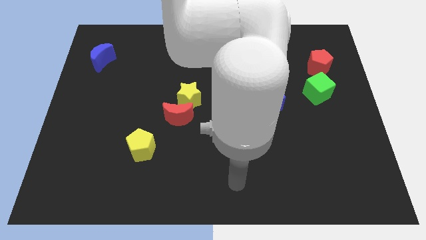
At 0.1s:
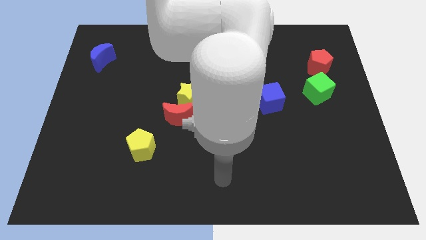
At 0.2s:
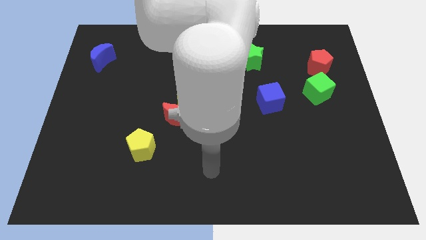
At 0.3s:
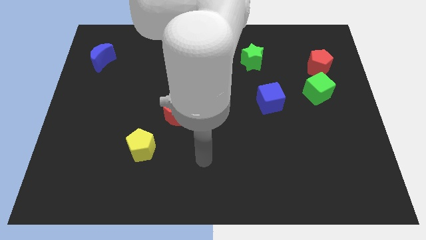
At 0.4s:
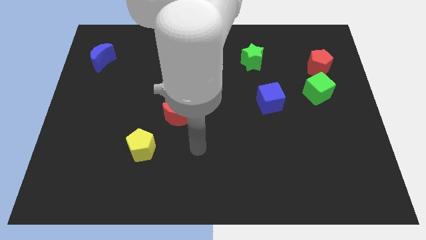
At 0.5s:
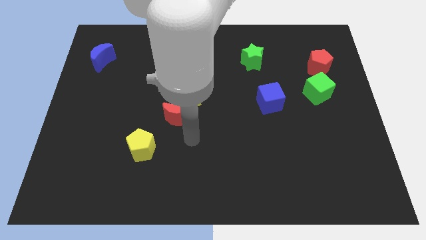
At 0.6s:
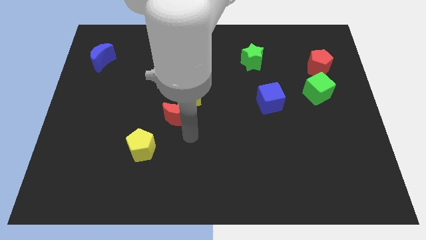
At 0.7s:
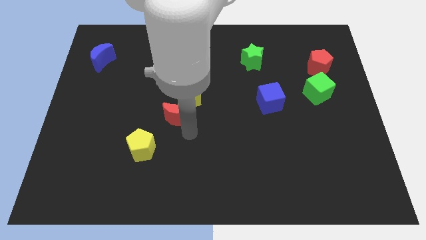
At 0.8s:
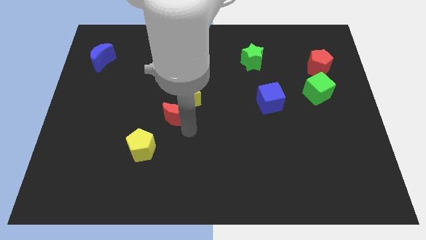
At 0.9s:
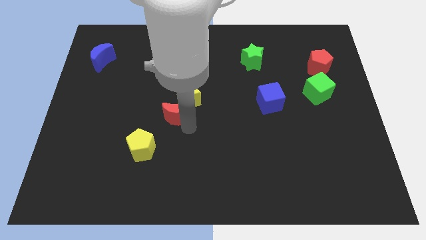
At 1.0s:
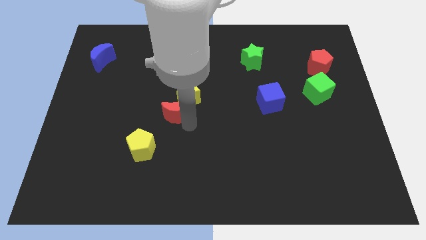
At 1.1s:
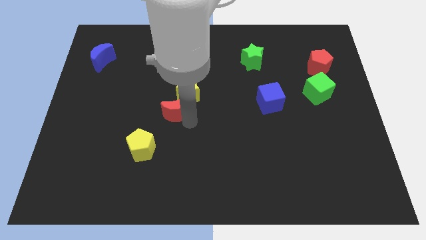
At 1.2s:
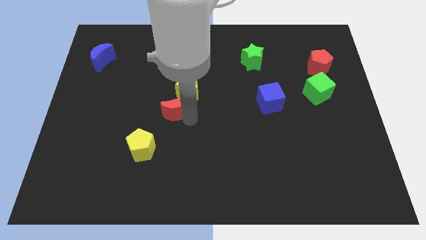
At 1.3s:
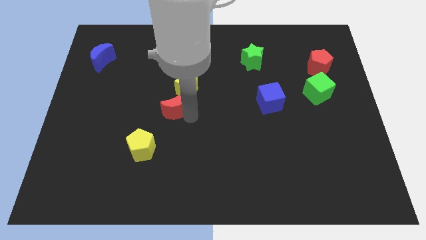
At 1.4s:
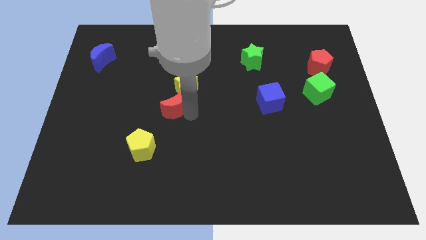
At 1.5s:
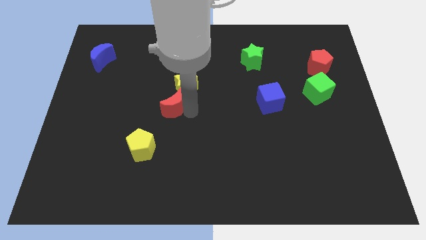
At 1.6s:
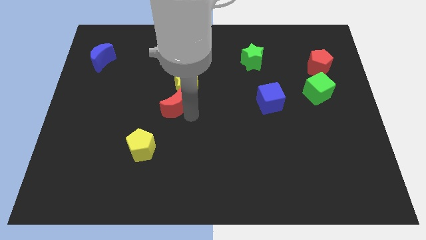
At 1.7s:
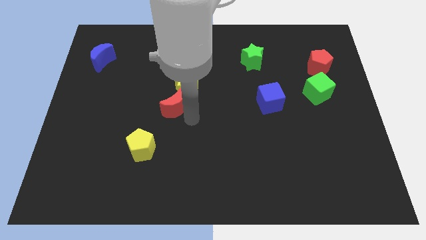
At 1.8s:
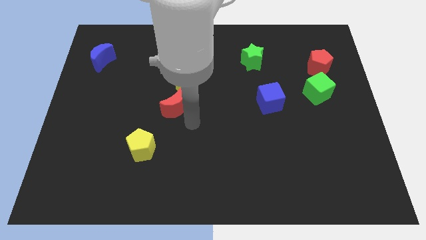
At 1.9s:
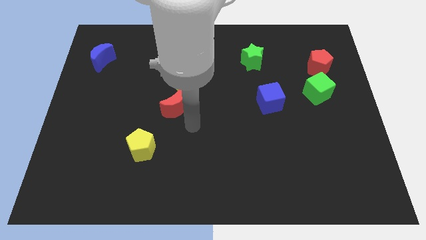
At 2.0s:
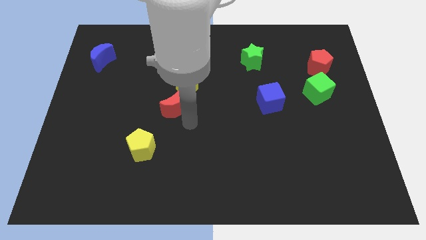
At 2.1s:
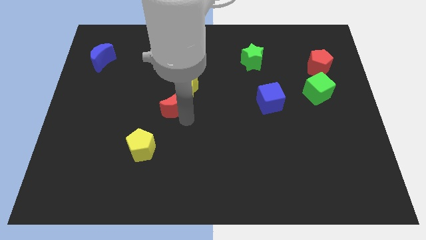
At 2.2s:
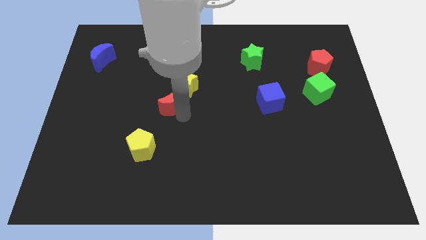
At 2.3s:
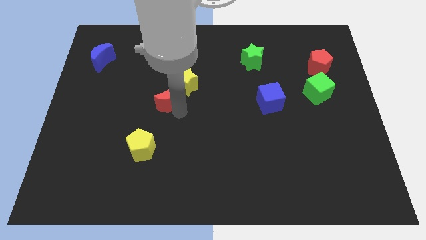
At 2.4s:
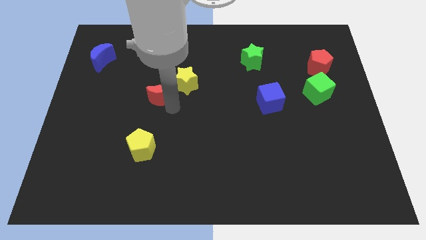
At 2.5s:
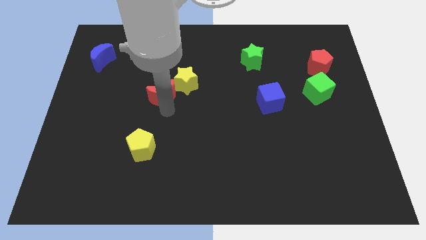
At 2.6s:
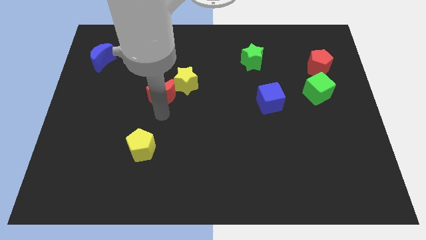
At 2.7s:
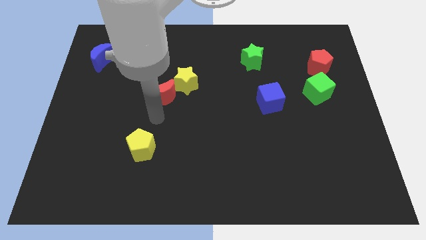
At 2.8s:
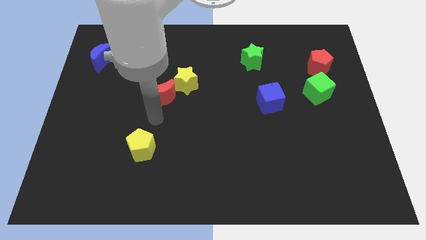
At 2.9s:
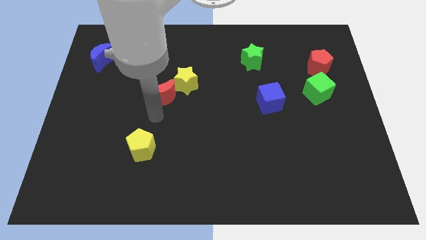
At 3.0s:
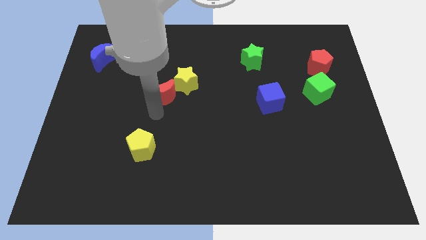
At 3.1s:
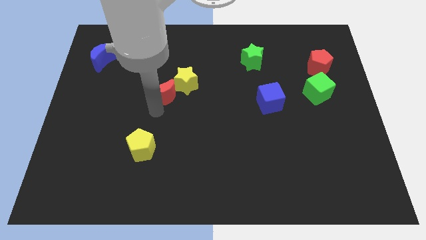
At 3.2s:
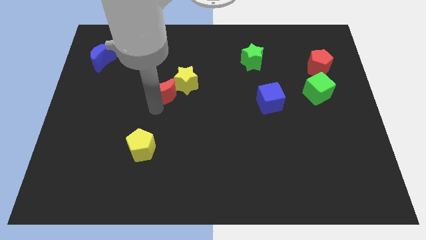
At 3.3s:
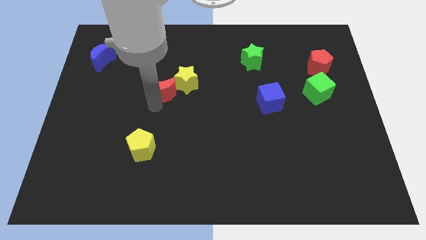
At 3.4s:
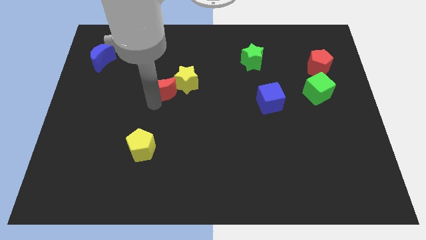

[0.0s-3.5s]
move the red moon slightly up

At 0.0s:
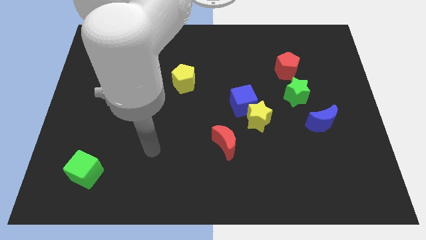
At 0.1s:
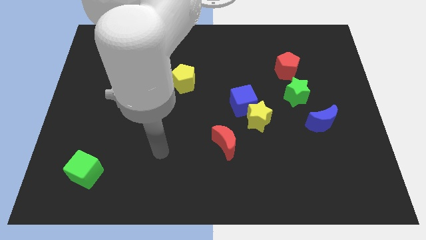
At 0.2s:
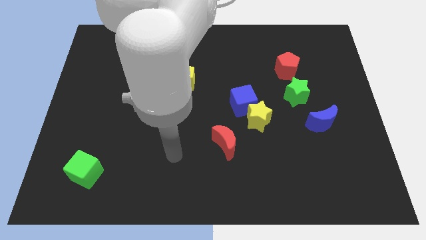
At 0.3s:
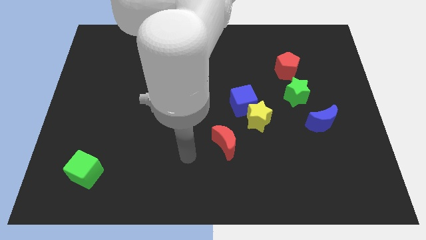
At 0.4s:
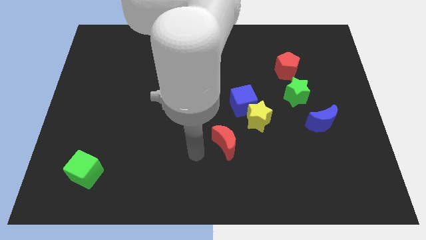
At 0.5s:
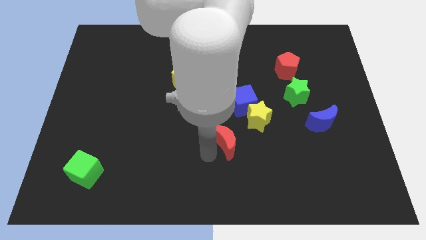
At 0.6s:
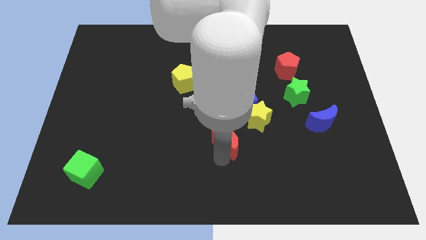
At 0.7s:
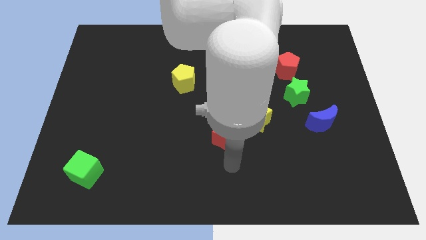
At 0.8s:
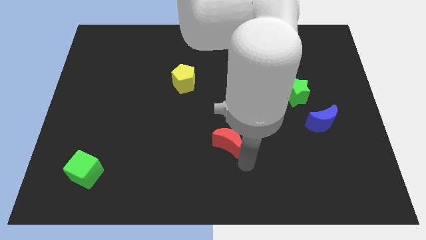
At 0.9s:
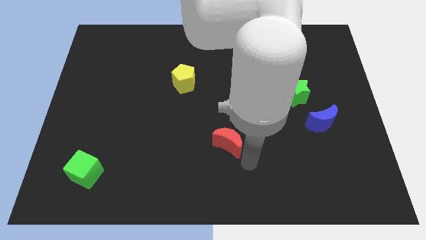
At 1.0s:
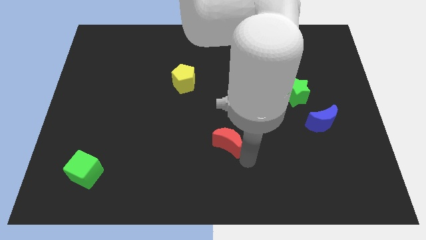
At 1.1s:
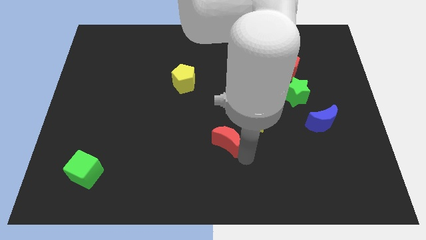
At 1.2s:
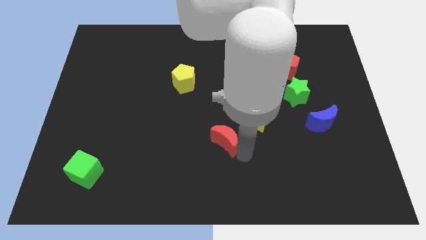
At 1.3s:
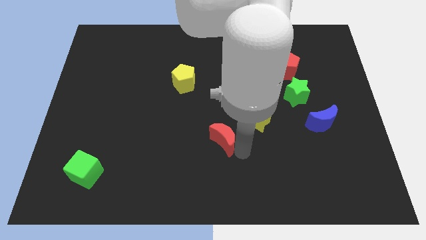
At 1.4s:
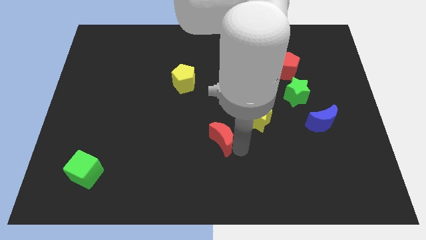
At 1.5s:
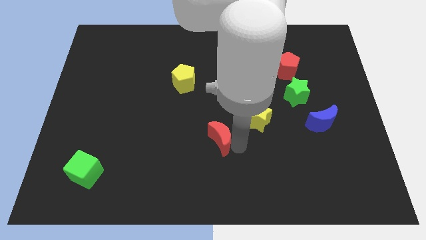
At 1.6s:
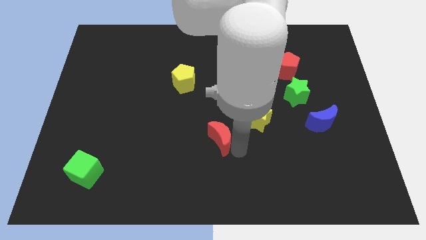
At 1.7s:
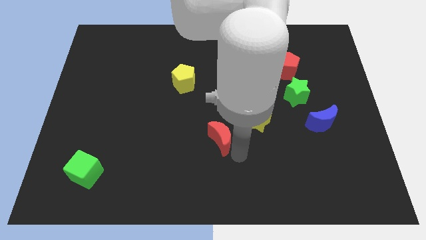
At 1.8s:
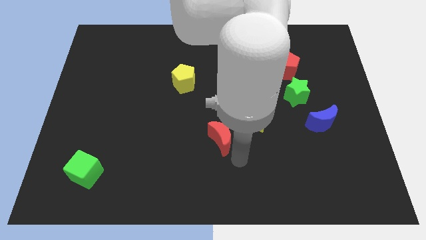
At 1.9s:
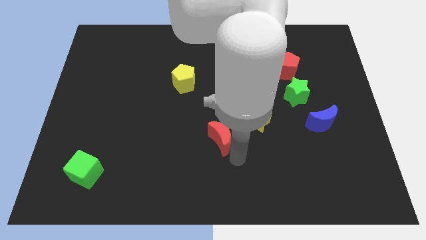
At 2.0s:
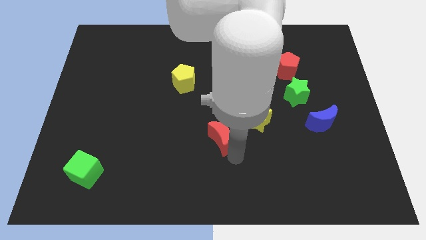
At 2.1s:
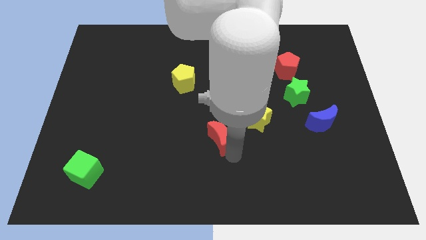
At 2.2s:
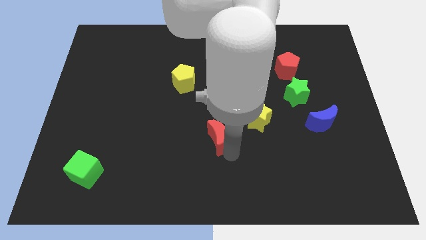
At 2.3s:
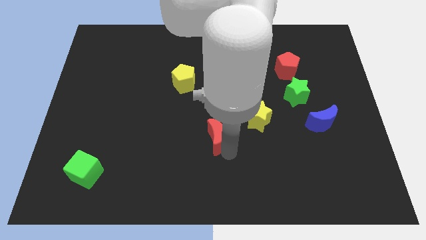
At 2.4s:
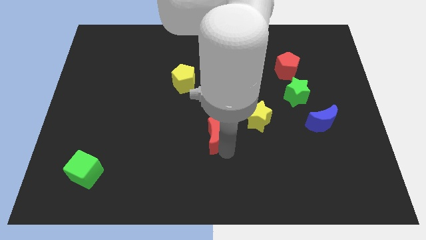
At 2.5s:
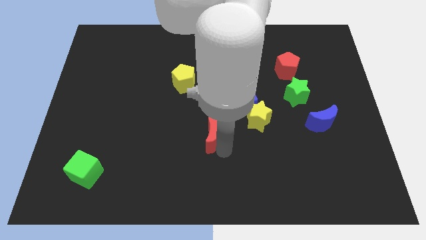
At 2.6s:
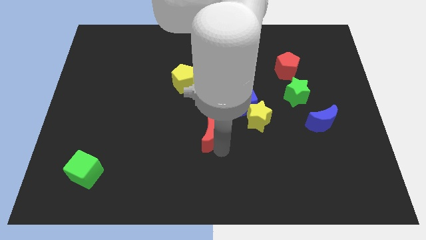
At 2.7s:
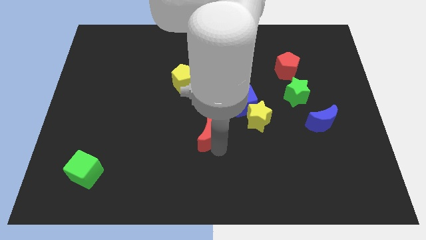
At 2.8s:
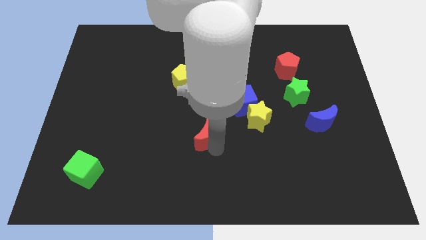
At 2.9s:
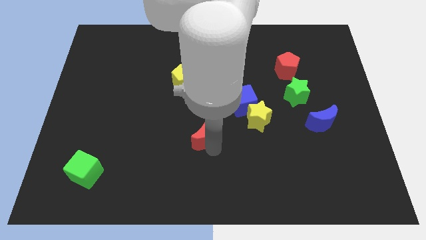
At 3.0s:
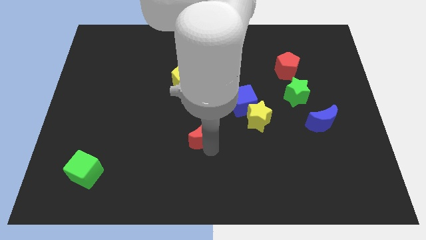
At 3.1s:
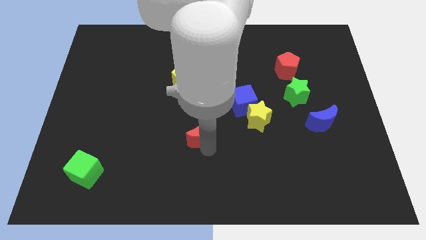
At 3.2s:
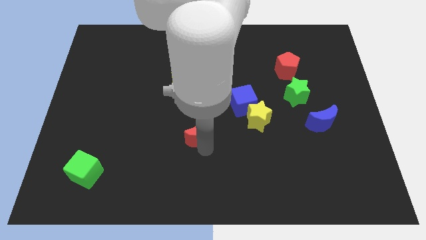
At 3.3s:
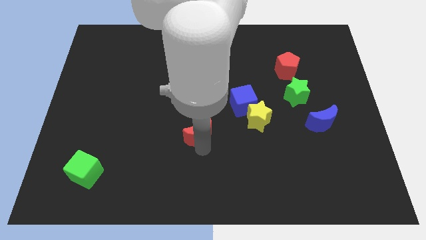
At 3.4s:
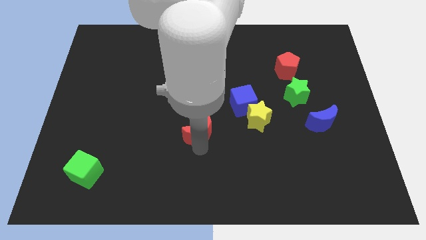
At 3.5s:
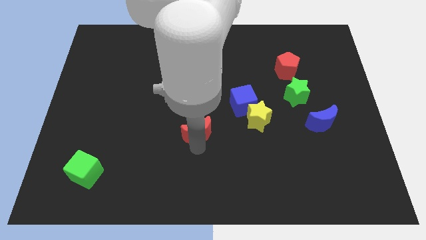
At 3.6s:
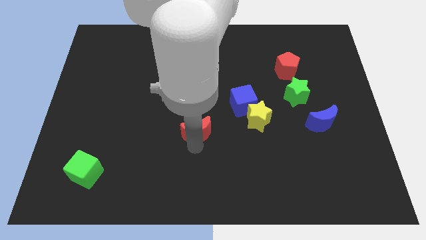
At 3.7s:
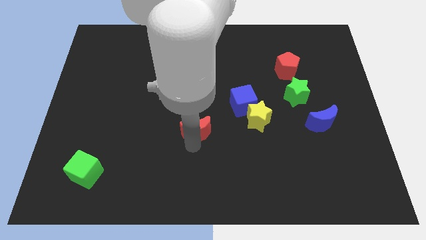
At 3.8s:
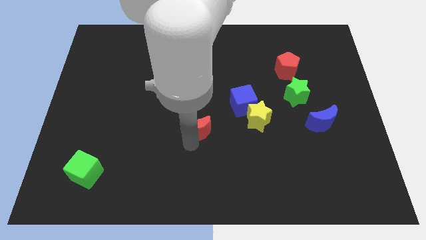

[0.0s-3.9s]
slightly push the red moon diagonally upwards and to the left

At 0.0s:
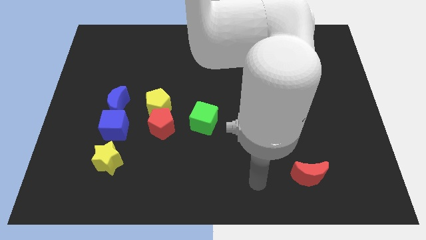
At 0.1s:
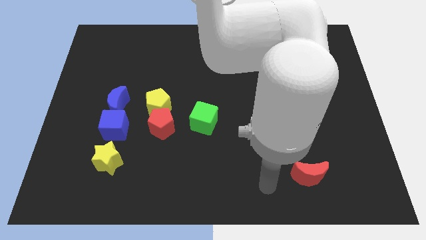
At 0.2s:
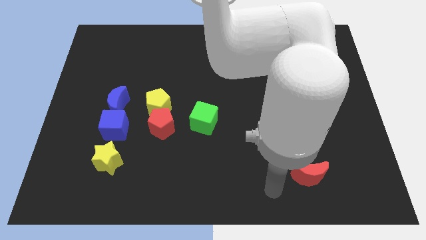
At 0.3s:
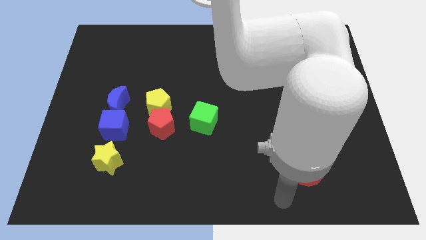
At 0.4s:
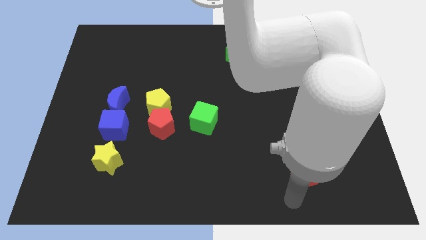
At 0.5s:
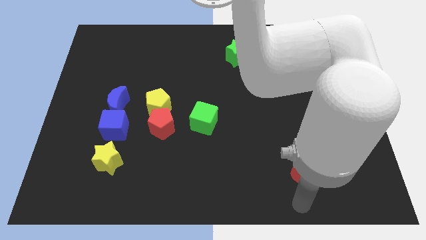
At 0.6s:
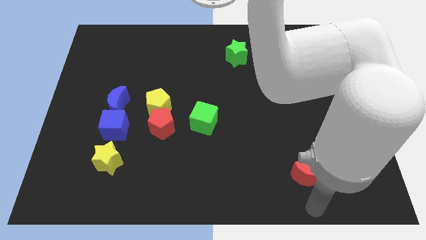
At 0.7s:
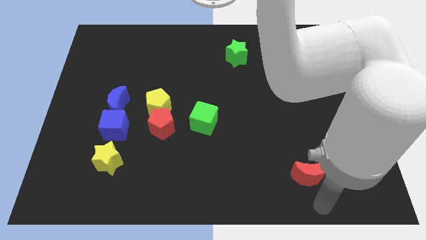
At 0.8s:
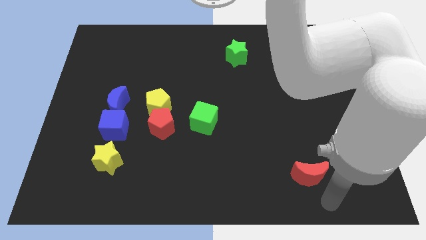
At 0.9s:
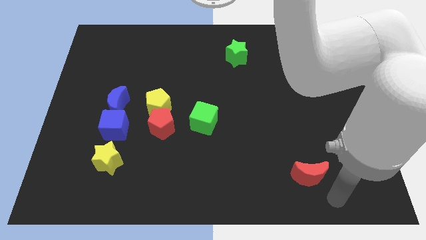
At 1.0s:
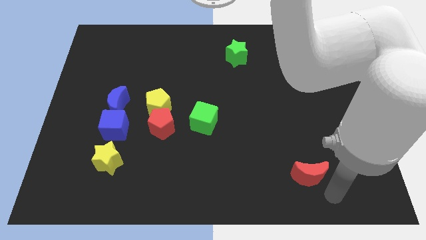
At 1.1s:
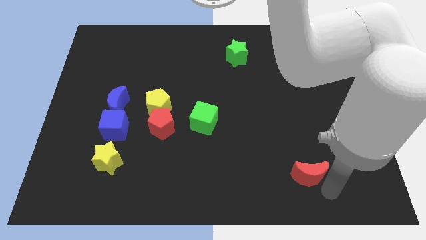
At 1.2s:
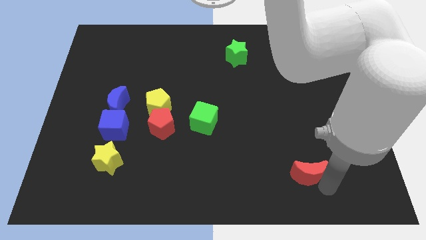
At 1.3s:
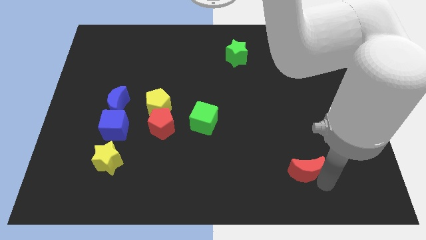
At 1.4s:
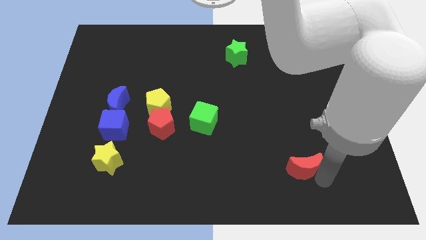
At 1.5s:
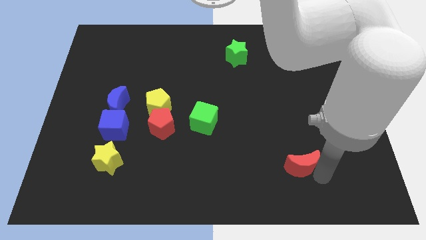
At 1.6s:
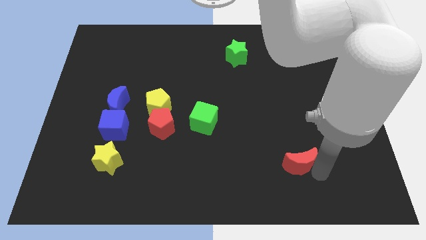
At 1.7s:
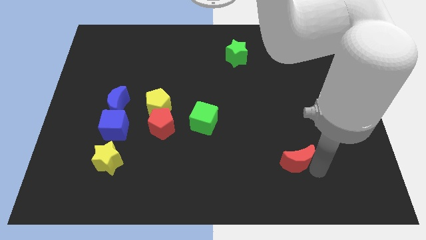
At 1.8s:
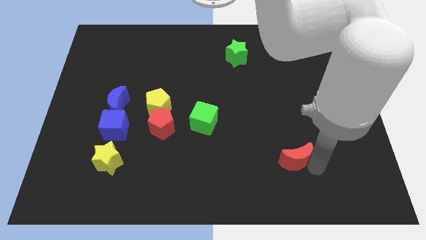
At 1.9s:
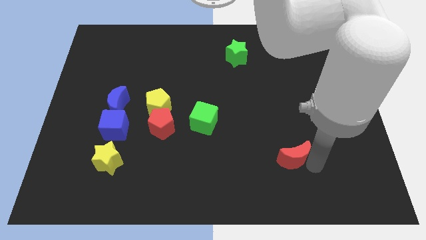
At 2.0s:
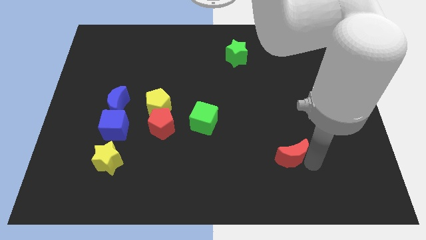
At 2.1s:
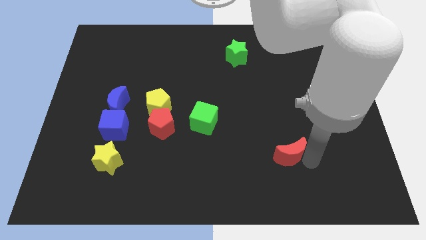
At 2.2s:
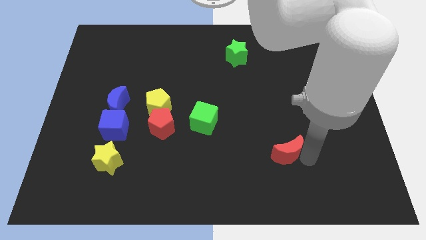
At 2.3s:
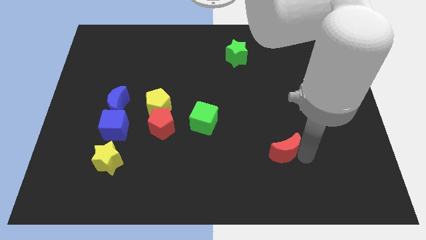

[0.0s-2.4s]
push the red moon up and left diagonally slightly
